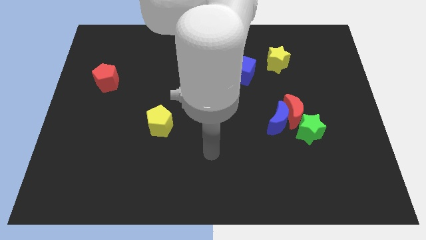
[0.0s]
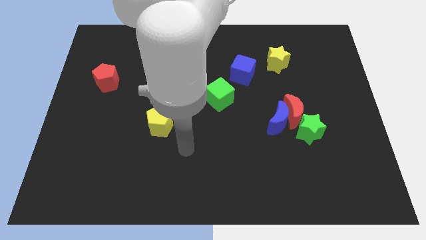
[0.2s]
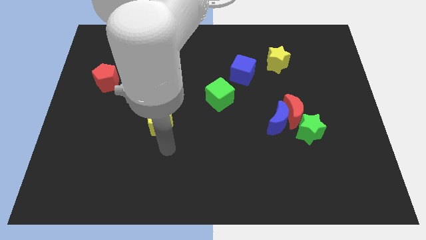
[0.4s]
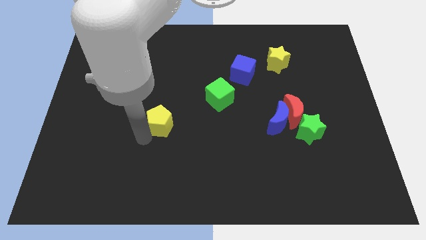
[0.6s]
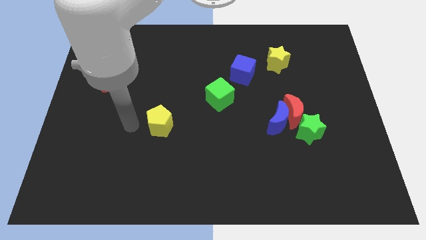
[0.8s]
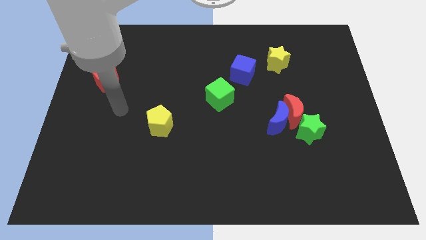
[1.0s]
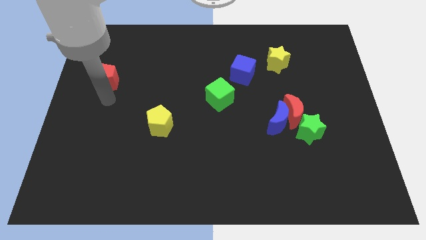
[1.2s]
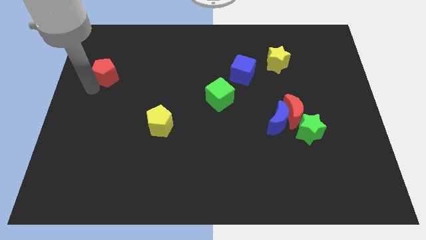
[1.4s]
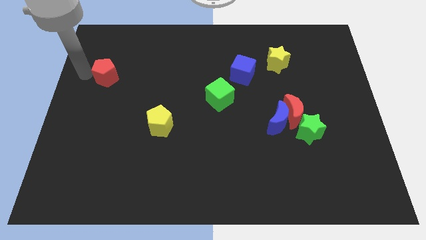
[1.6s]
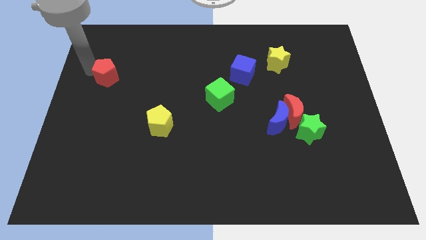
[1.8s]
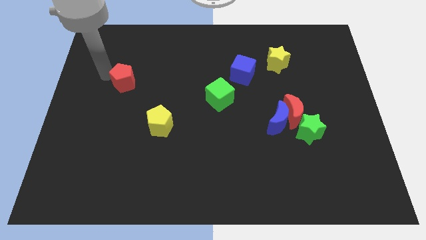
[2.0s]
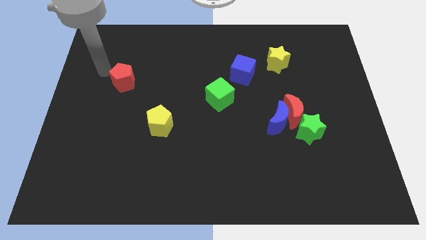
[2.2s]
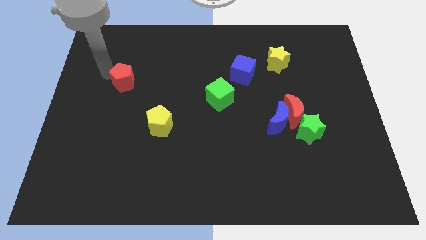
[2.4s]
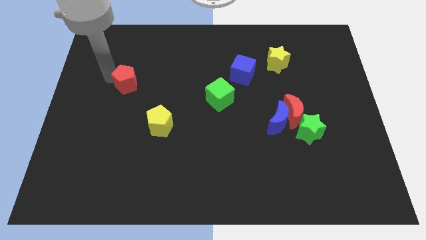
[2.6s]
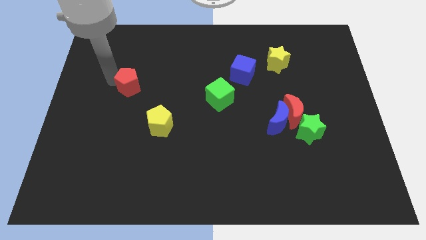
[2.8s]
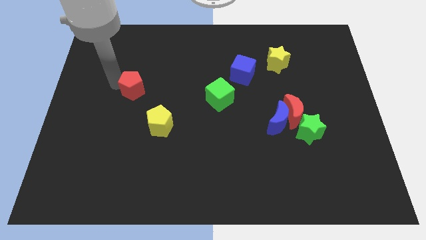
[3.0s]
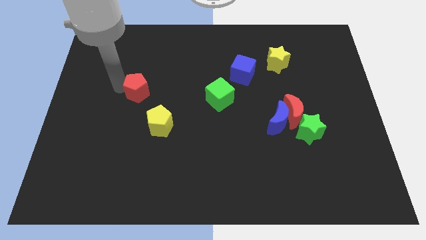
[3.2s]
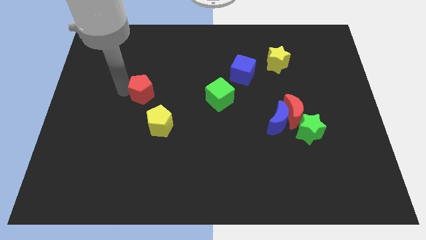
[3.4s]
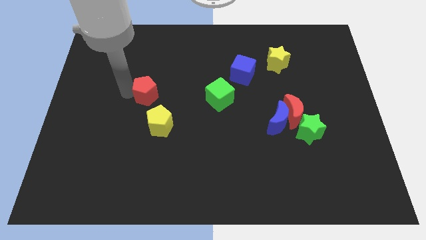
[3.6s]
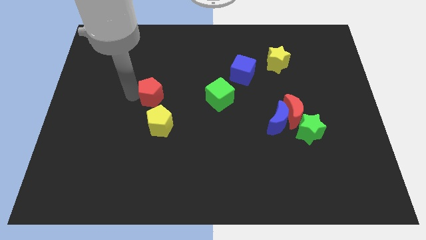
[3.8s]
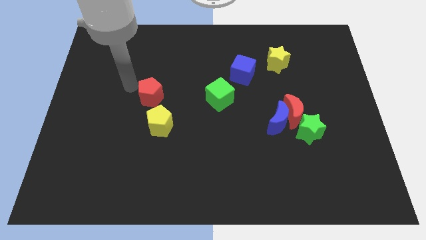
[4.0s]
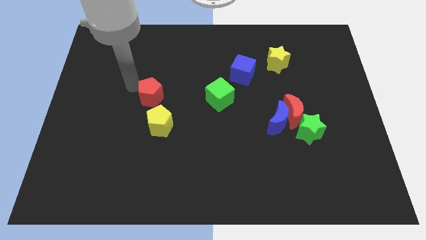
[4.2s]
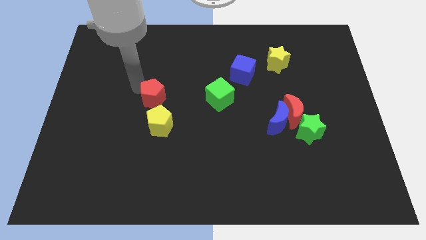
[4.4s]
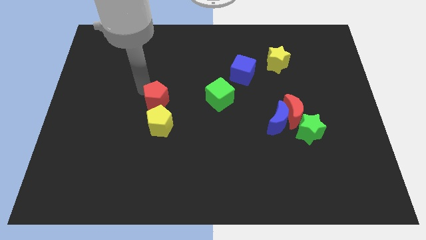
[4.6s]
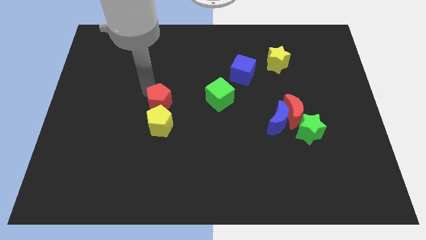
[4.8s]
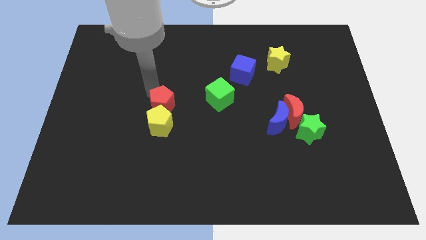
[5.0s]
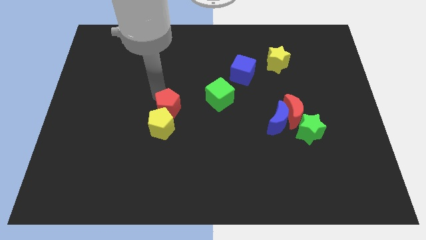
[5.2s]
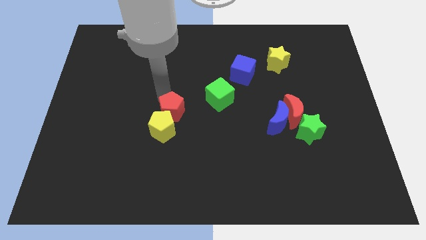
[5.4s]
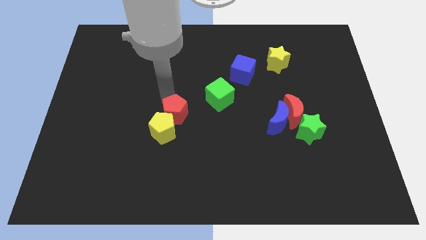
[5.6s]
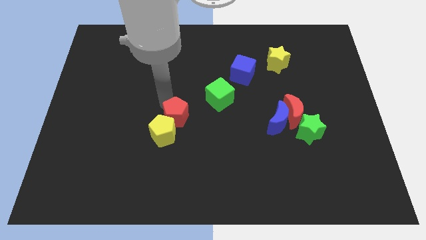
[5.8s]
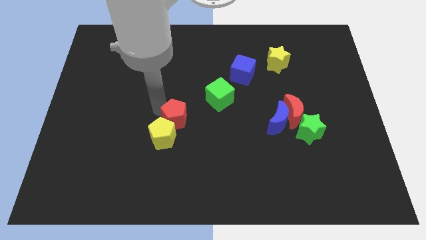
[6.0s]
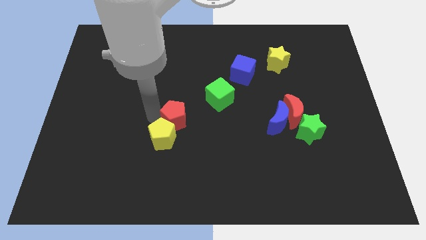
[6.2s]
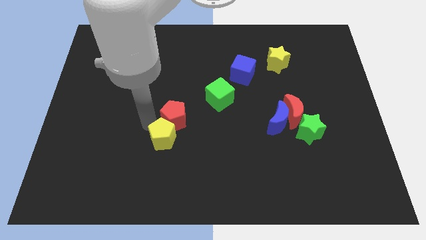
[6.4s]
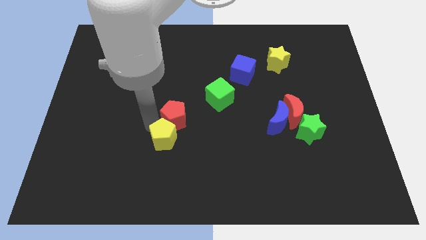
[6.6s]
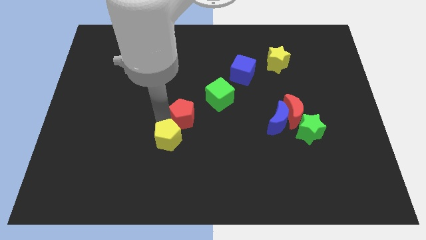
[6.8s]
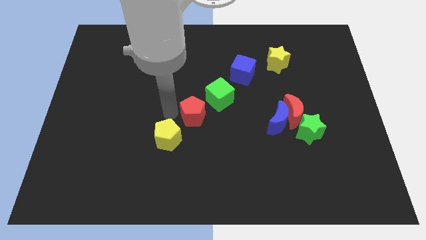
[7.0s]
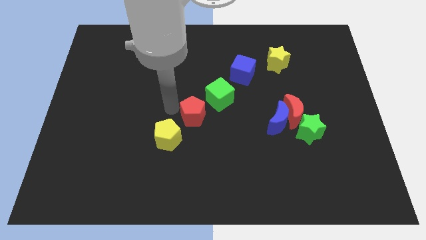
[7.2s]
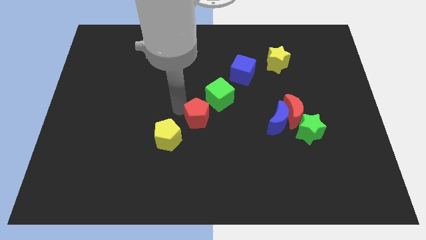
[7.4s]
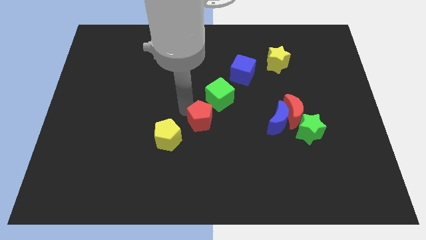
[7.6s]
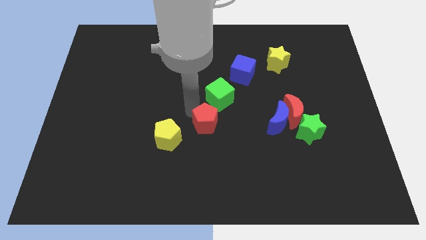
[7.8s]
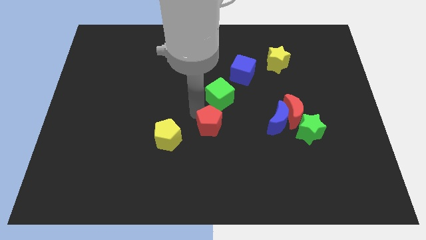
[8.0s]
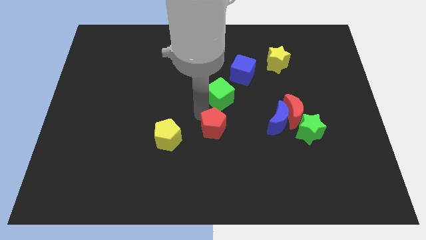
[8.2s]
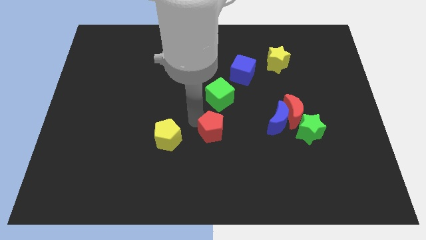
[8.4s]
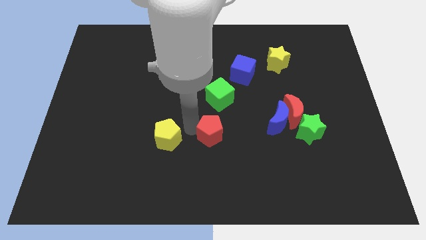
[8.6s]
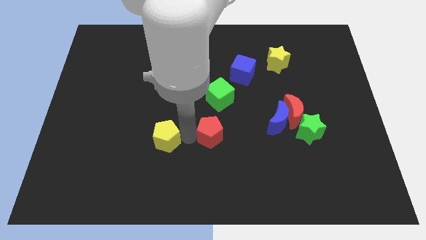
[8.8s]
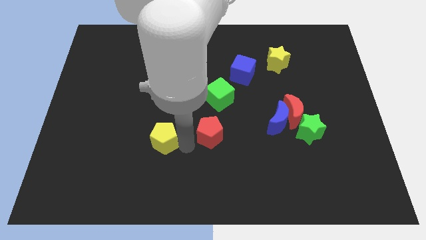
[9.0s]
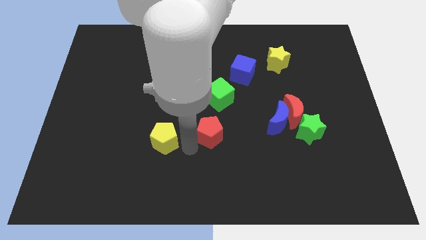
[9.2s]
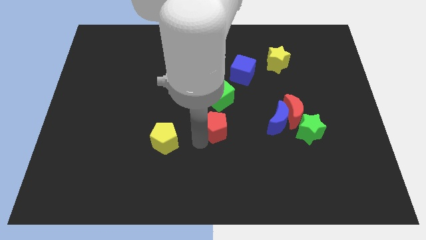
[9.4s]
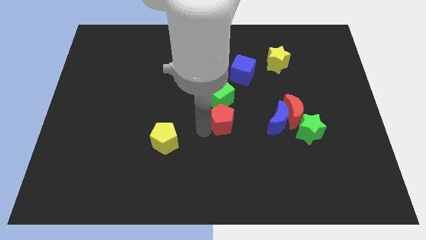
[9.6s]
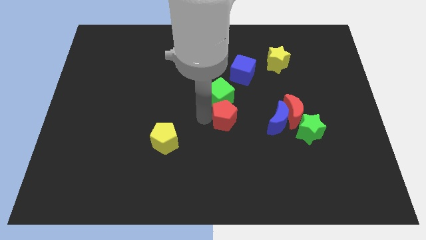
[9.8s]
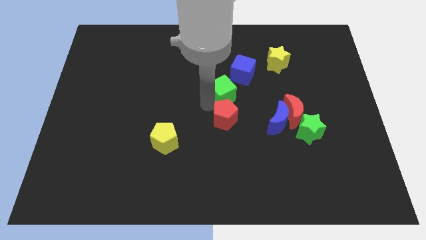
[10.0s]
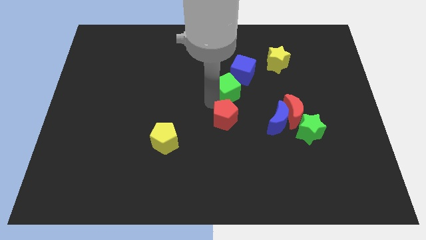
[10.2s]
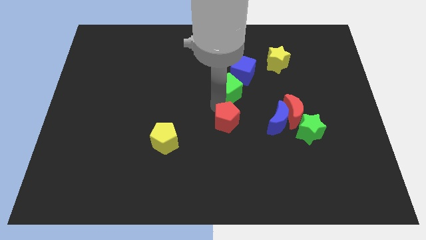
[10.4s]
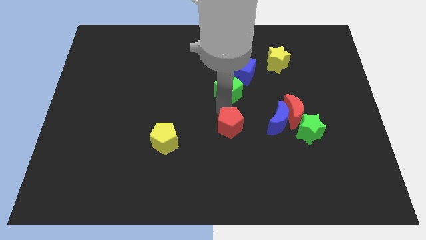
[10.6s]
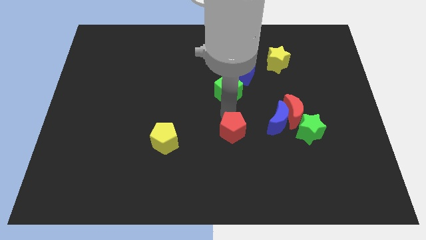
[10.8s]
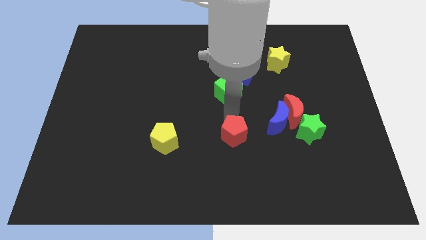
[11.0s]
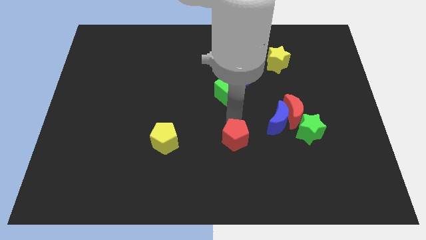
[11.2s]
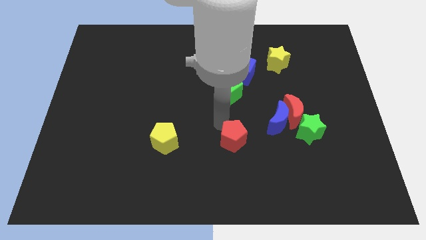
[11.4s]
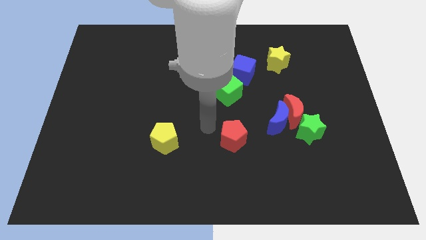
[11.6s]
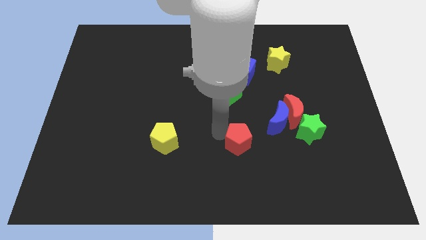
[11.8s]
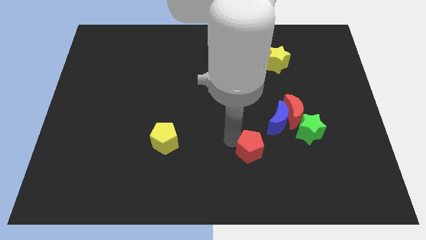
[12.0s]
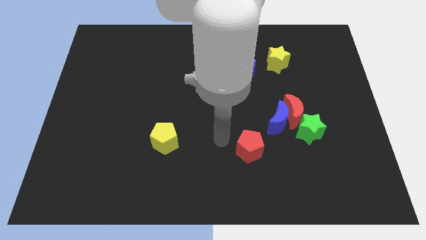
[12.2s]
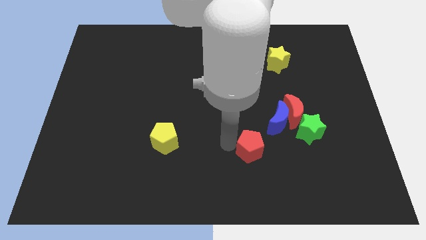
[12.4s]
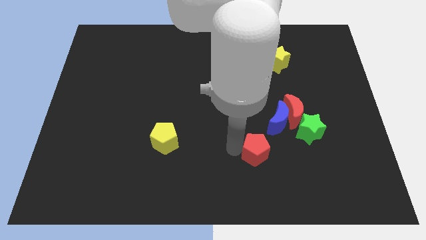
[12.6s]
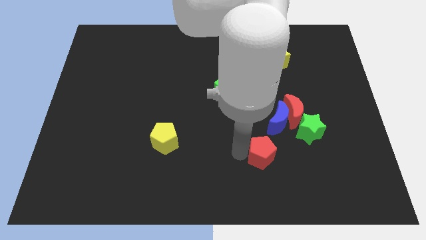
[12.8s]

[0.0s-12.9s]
slide the red pentagon to the bottom side of the blue moon

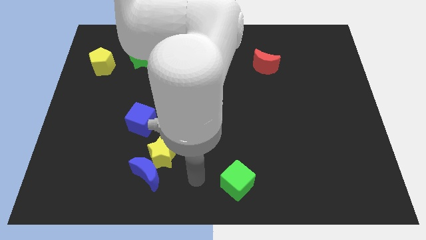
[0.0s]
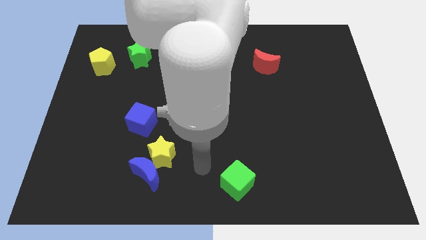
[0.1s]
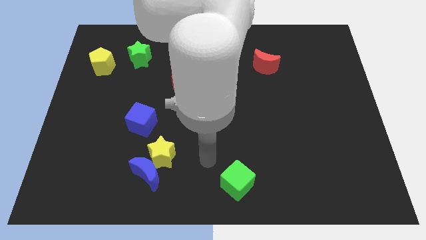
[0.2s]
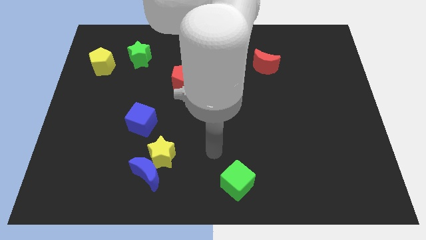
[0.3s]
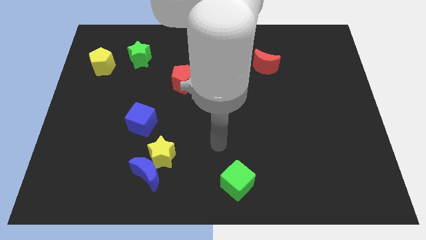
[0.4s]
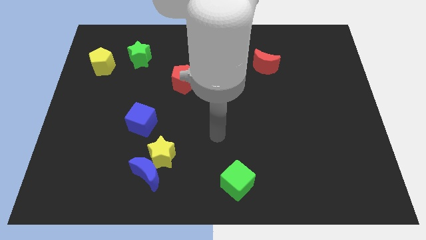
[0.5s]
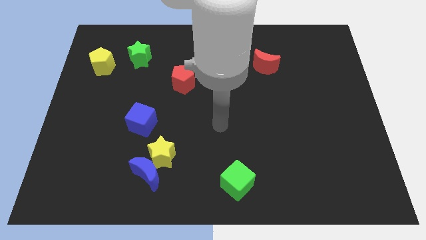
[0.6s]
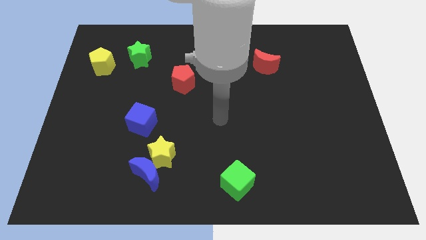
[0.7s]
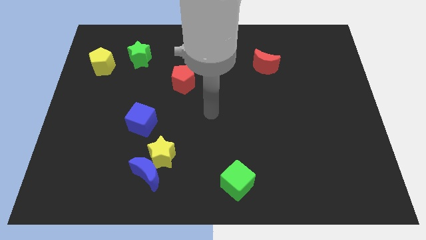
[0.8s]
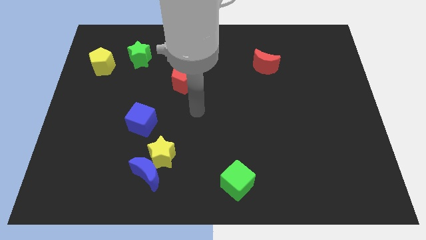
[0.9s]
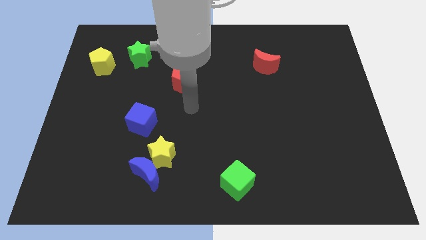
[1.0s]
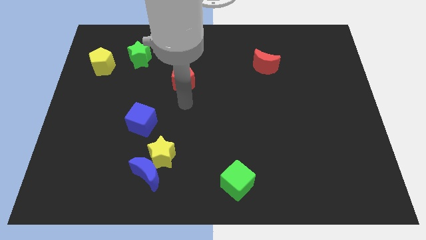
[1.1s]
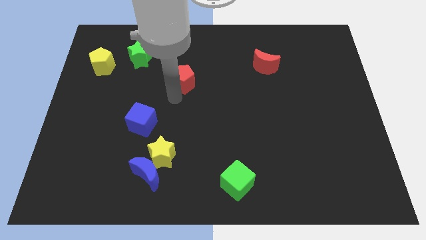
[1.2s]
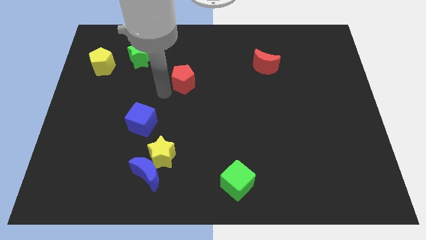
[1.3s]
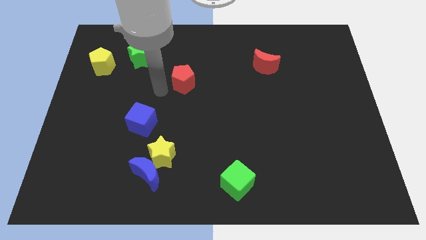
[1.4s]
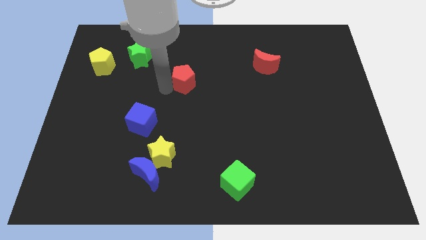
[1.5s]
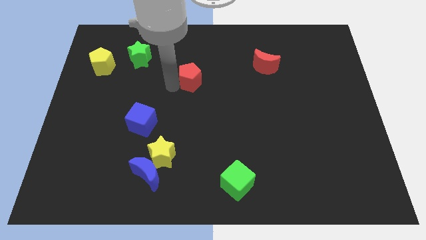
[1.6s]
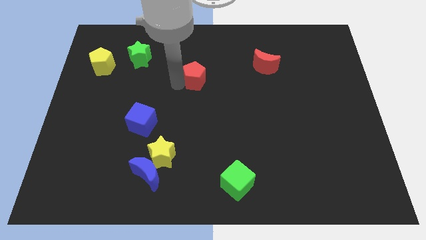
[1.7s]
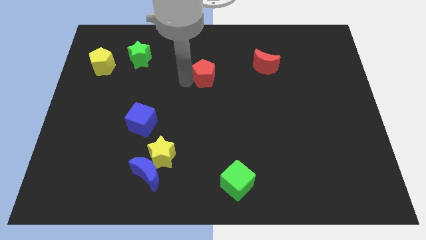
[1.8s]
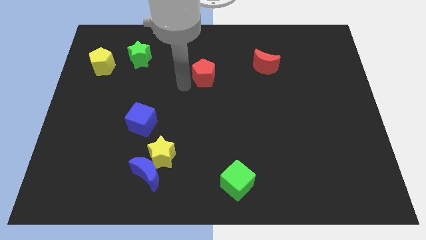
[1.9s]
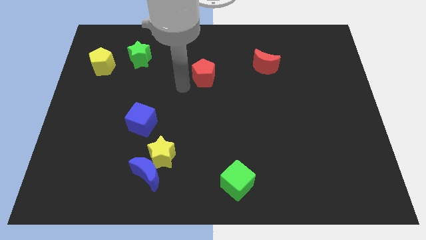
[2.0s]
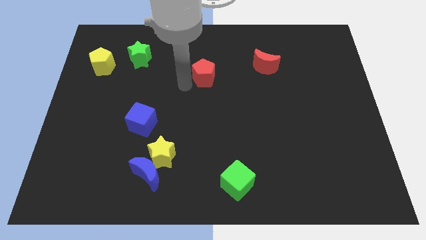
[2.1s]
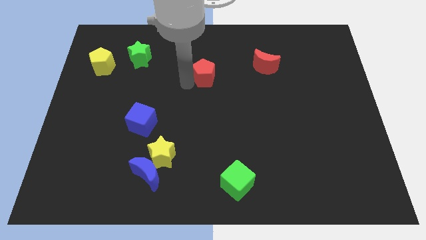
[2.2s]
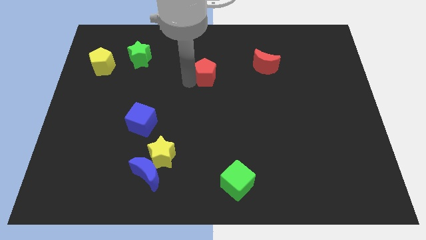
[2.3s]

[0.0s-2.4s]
move the red pentagon left of the red moon
